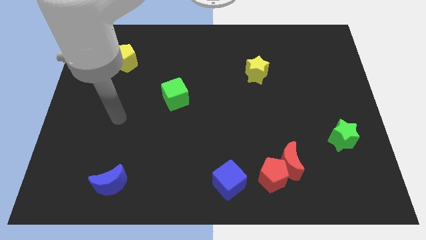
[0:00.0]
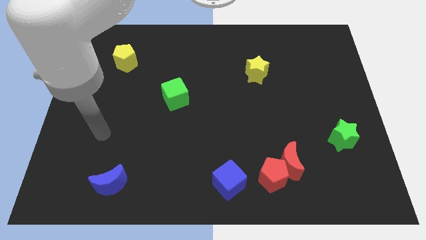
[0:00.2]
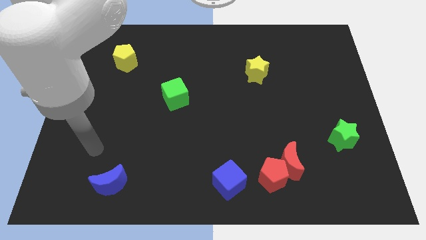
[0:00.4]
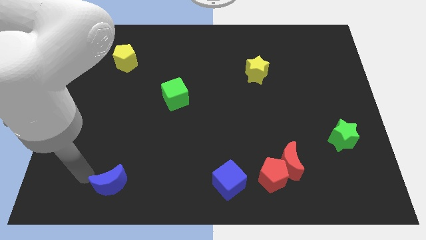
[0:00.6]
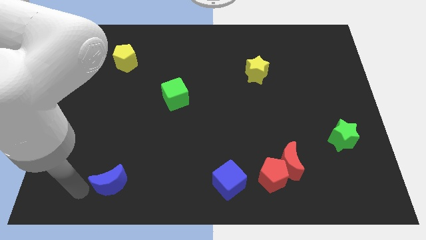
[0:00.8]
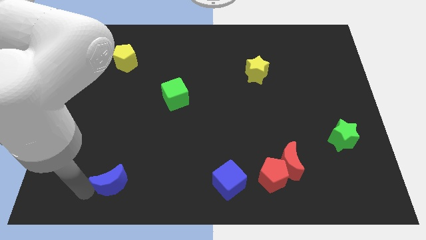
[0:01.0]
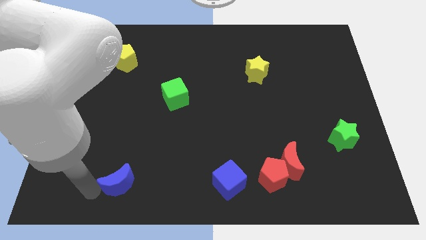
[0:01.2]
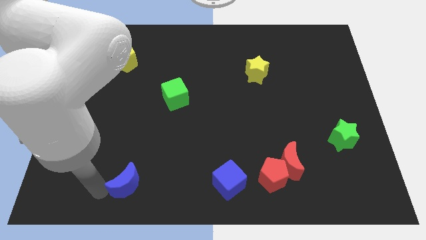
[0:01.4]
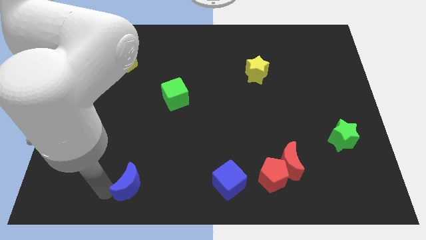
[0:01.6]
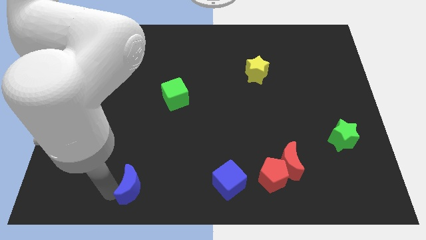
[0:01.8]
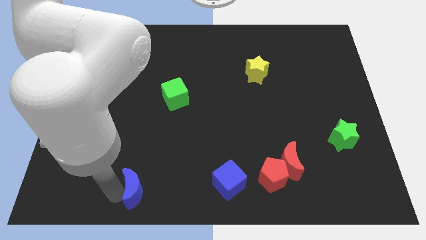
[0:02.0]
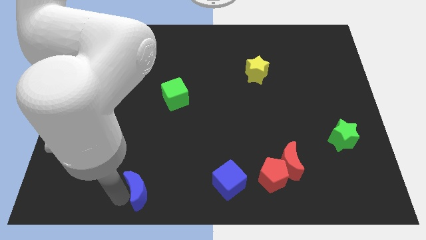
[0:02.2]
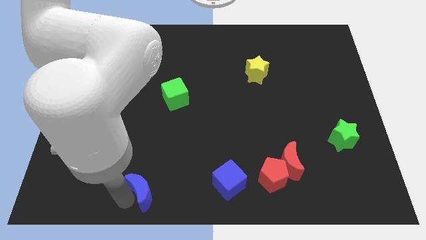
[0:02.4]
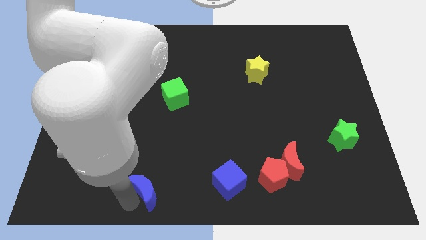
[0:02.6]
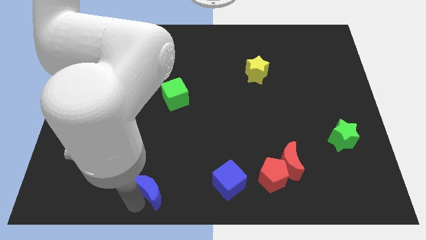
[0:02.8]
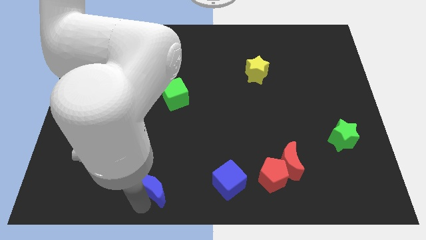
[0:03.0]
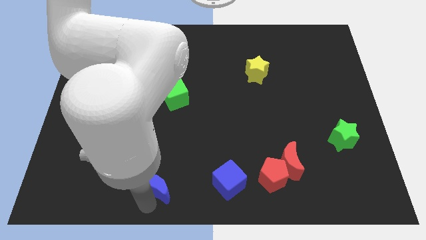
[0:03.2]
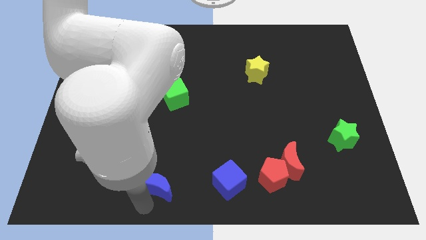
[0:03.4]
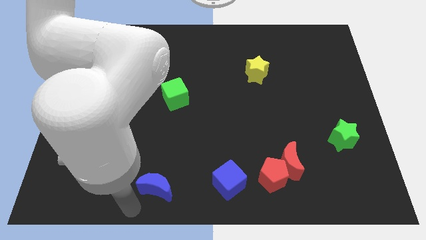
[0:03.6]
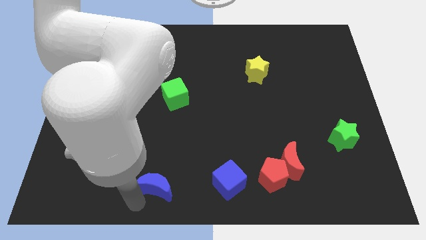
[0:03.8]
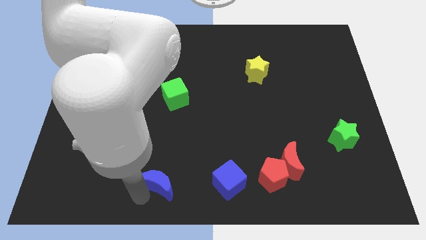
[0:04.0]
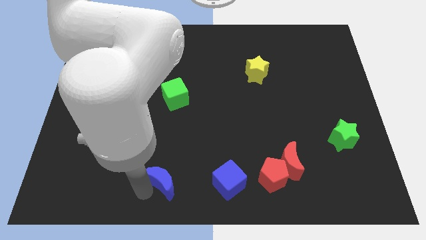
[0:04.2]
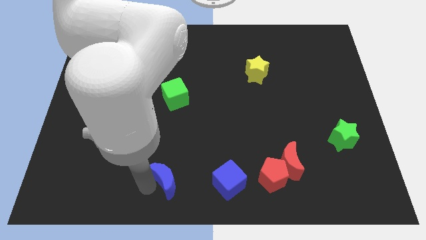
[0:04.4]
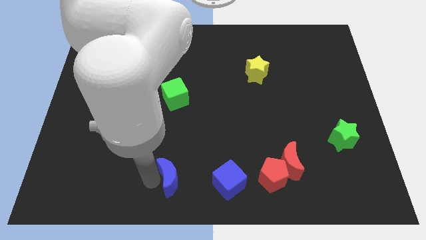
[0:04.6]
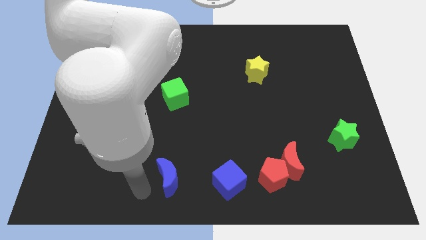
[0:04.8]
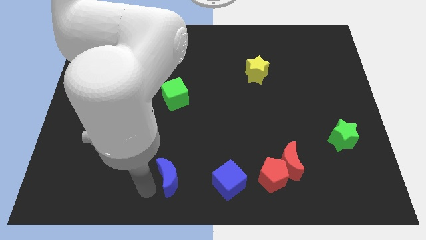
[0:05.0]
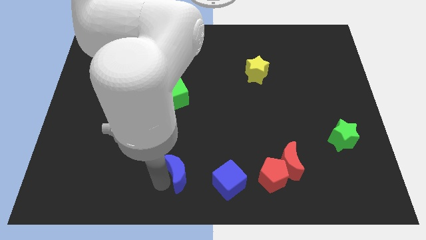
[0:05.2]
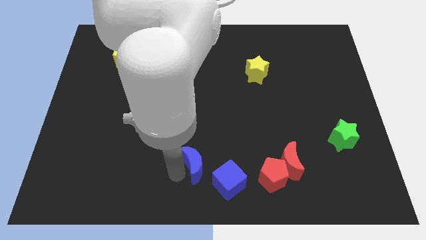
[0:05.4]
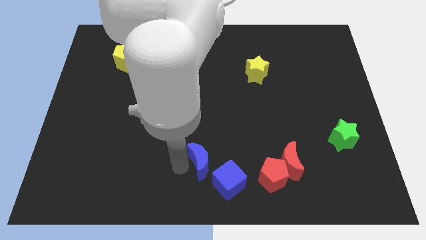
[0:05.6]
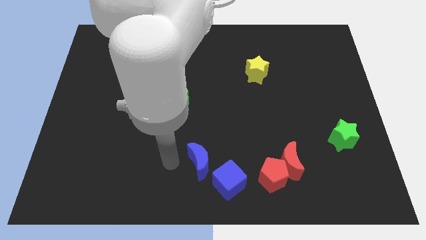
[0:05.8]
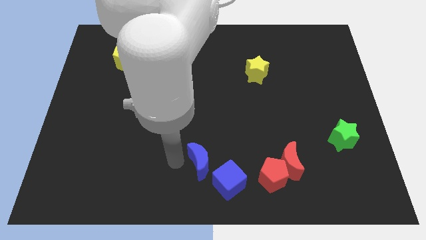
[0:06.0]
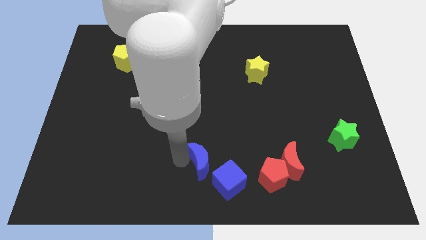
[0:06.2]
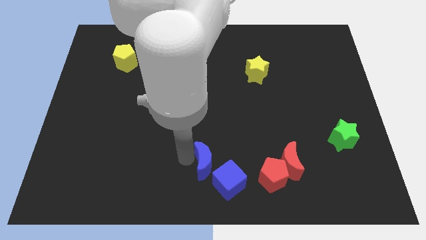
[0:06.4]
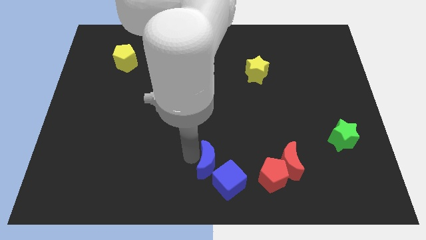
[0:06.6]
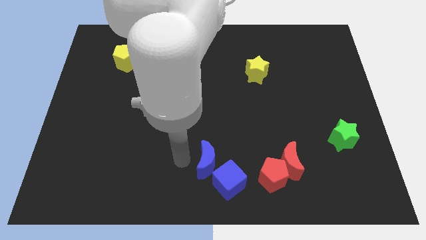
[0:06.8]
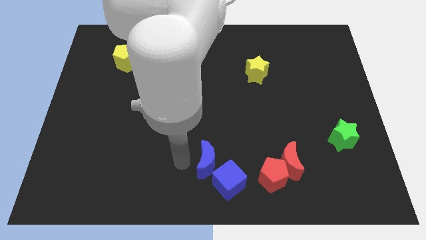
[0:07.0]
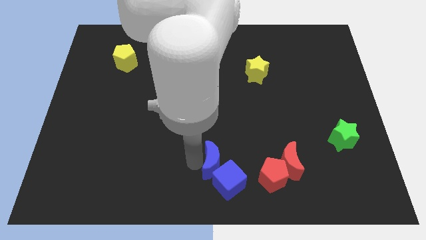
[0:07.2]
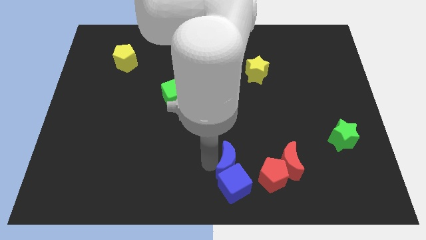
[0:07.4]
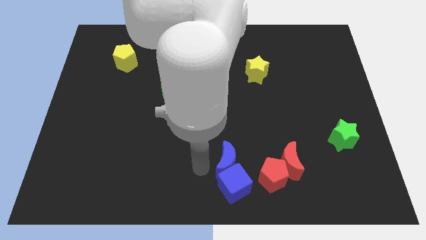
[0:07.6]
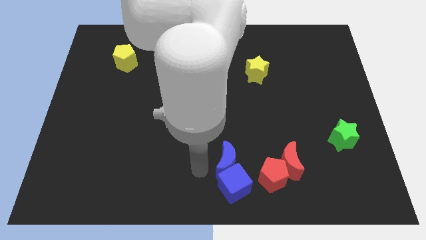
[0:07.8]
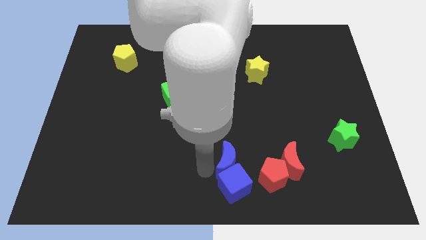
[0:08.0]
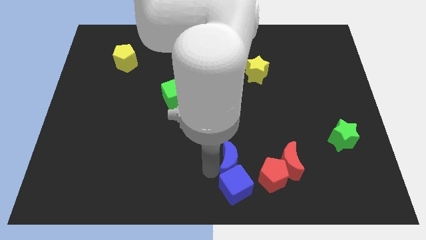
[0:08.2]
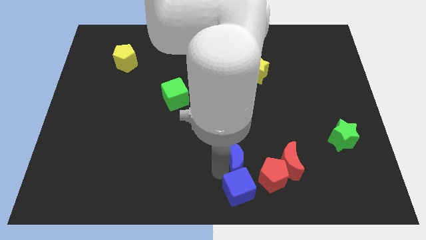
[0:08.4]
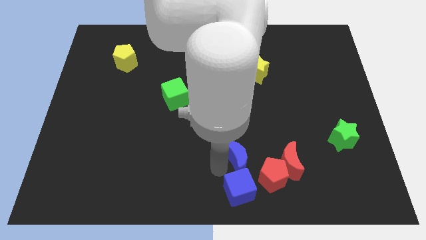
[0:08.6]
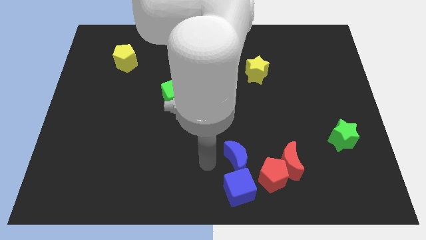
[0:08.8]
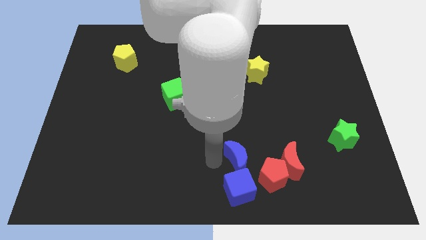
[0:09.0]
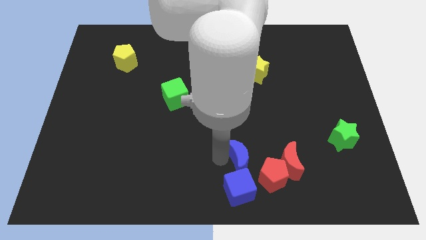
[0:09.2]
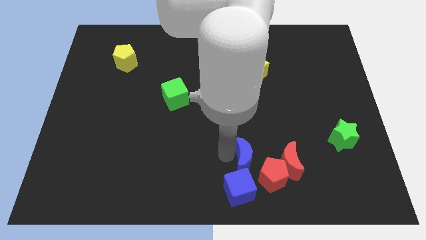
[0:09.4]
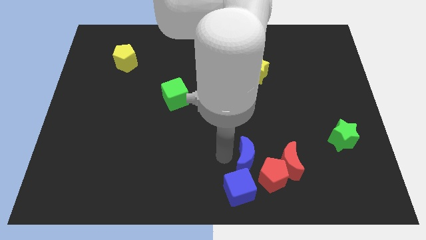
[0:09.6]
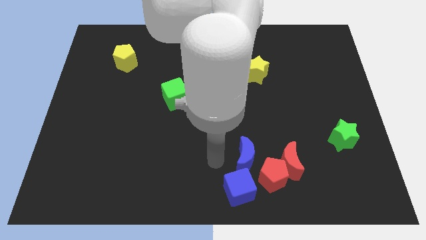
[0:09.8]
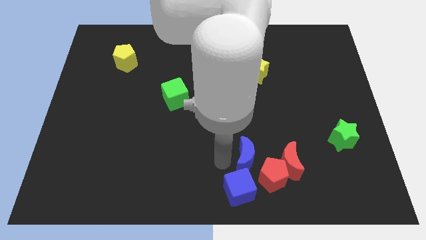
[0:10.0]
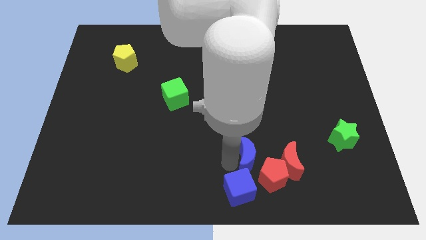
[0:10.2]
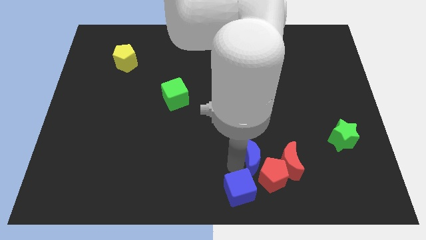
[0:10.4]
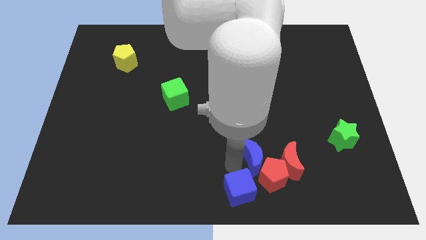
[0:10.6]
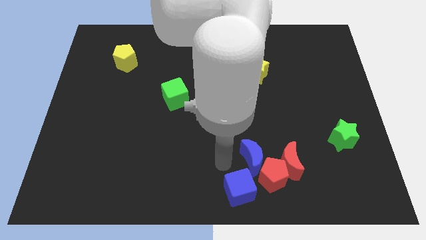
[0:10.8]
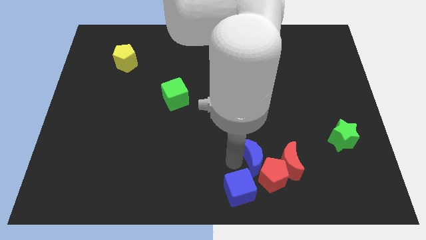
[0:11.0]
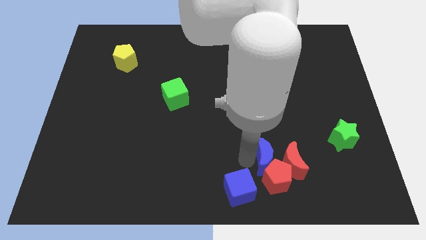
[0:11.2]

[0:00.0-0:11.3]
push the blue moon close to the red moon

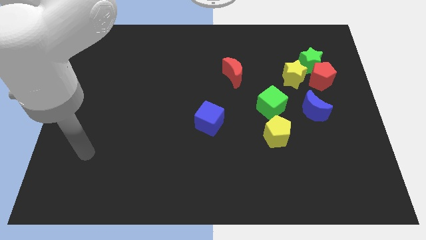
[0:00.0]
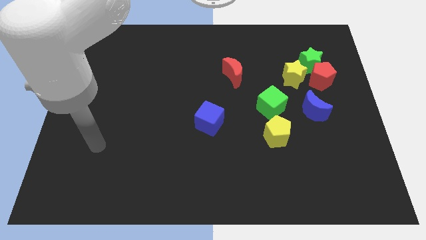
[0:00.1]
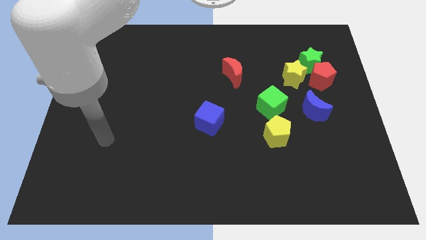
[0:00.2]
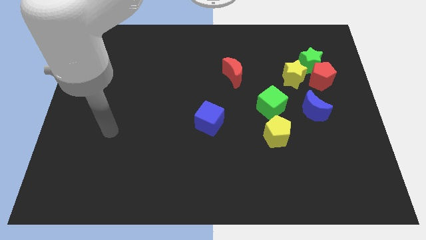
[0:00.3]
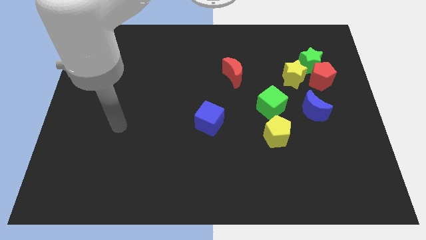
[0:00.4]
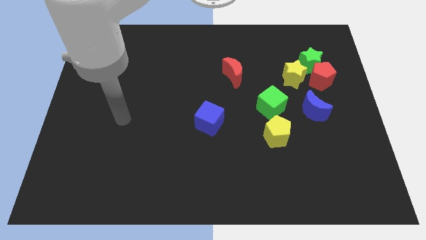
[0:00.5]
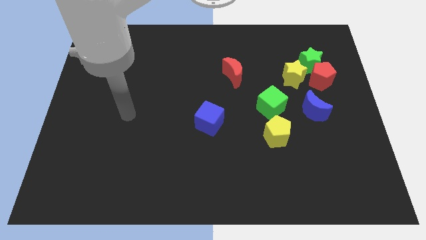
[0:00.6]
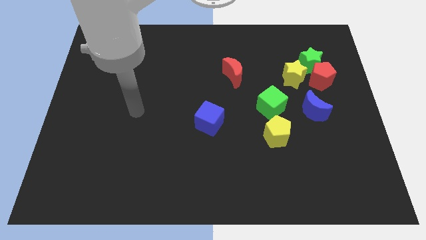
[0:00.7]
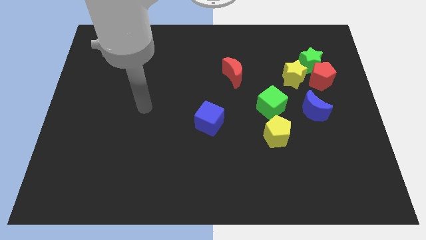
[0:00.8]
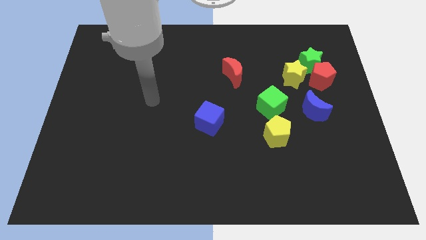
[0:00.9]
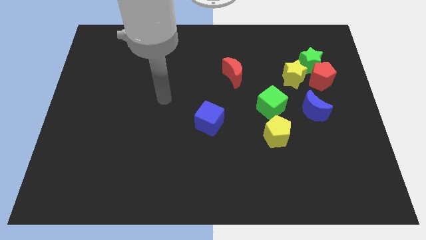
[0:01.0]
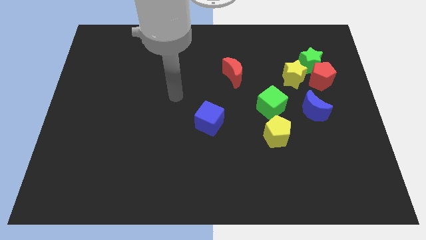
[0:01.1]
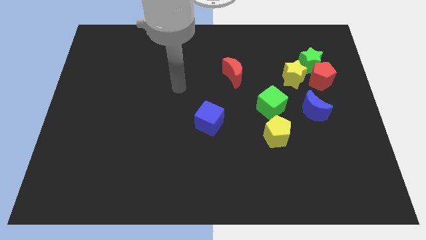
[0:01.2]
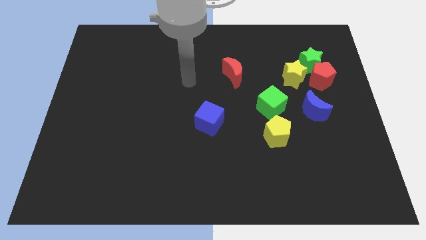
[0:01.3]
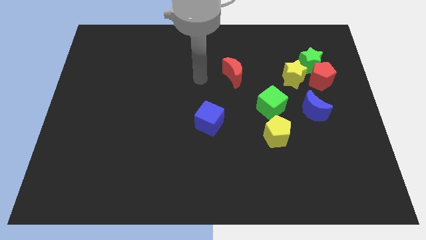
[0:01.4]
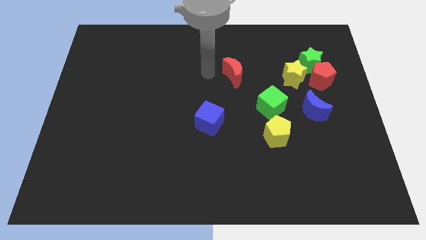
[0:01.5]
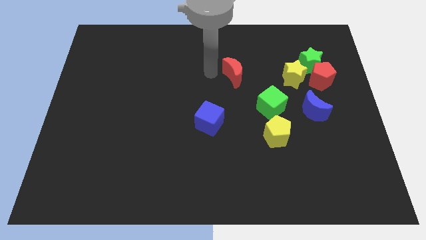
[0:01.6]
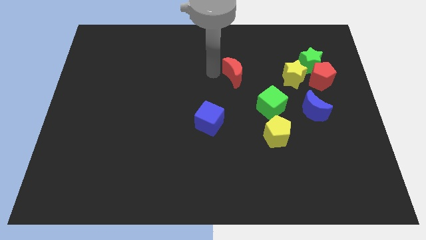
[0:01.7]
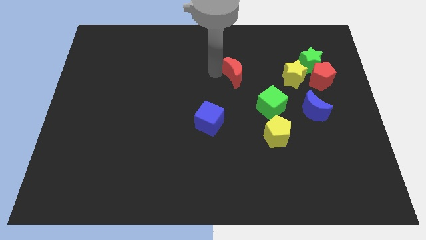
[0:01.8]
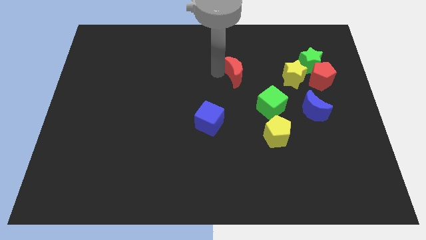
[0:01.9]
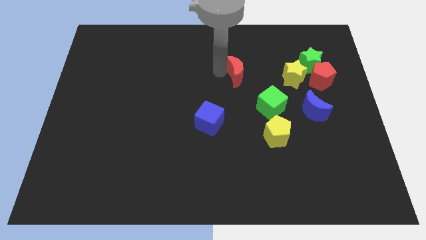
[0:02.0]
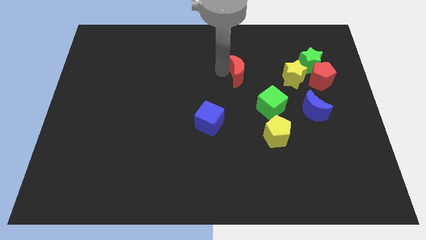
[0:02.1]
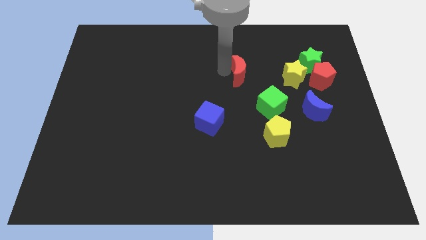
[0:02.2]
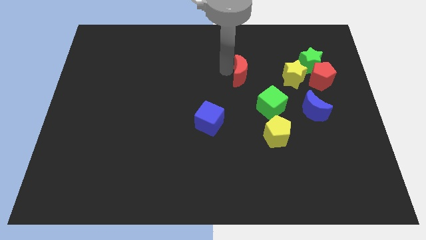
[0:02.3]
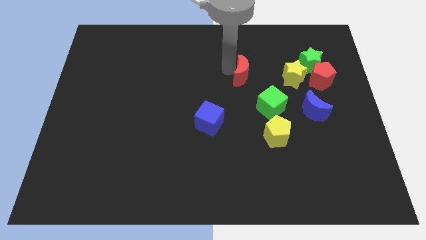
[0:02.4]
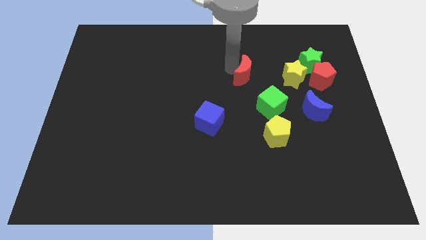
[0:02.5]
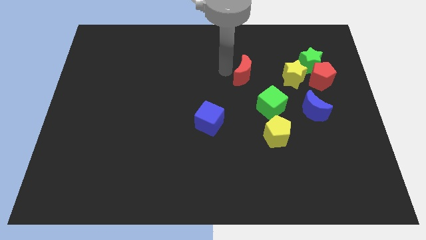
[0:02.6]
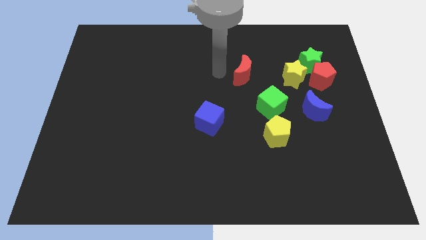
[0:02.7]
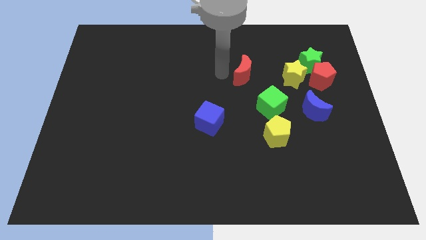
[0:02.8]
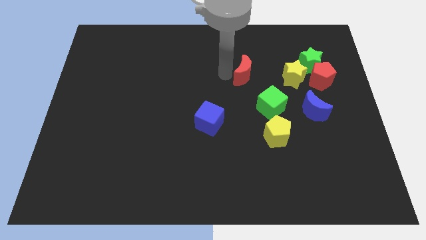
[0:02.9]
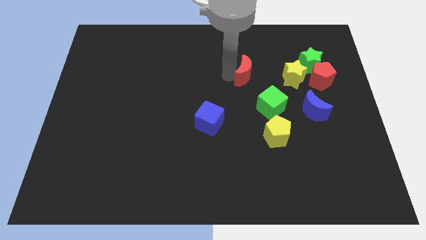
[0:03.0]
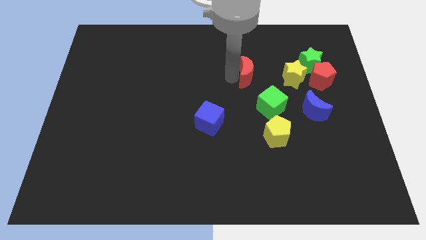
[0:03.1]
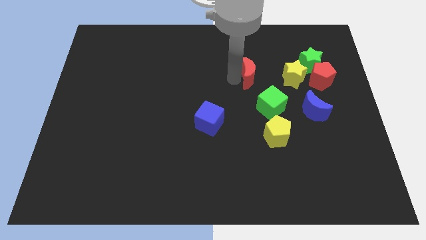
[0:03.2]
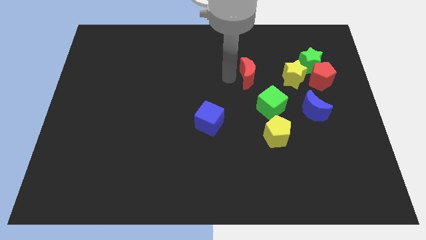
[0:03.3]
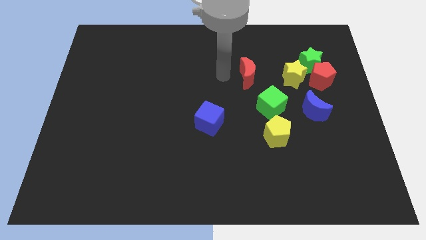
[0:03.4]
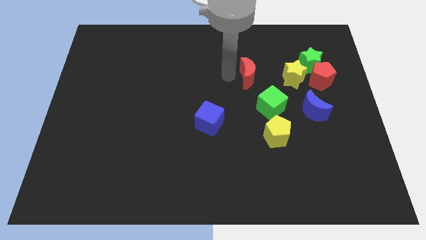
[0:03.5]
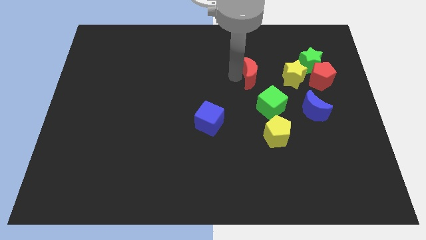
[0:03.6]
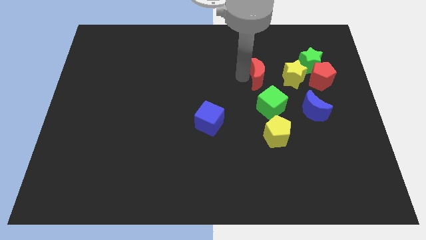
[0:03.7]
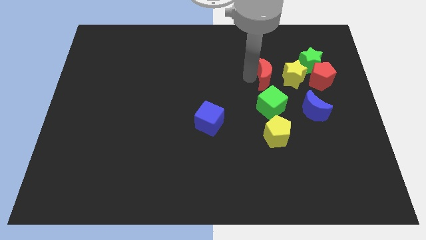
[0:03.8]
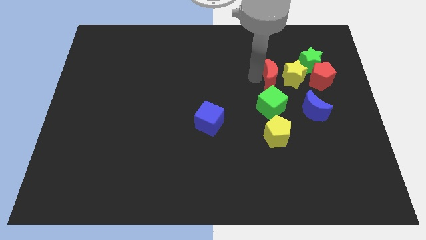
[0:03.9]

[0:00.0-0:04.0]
push the red moon to the yellow star
